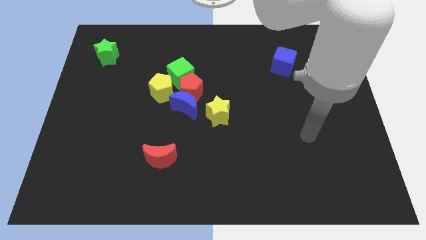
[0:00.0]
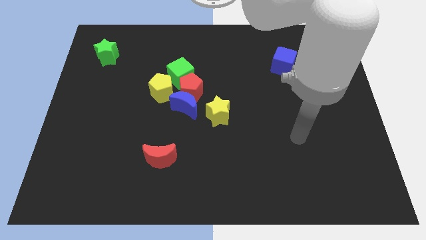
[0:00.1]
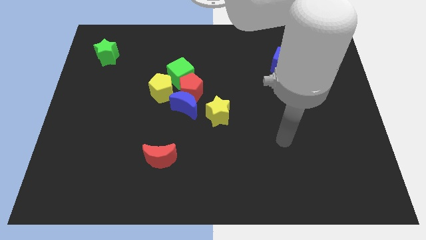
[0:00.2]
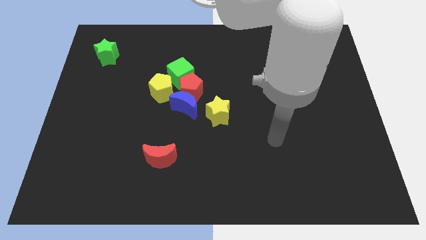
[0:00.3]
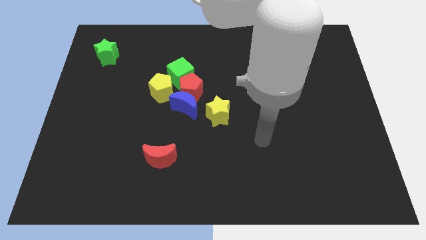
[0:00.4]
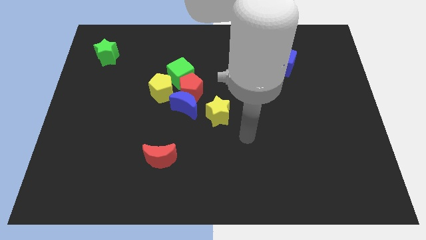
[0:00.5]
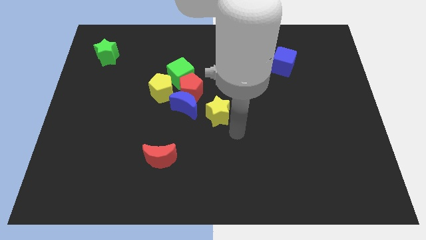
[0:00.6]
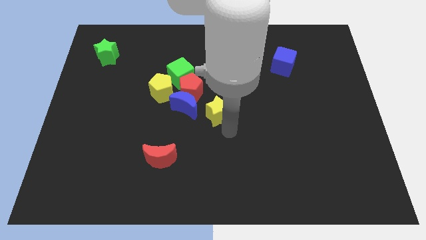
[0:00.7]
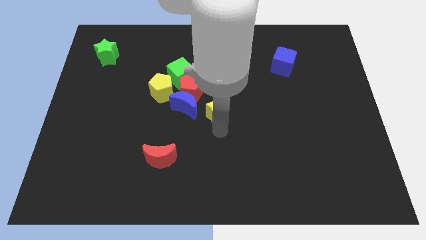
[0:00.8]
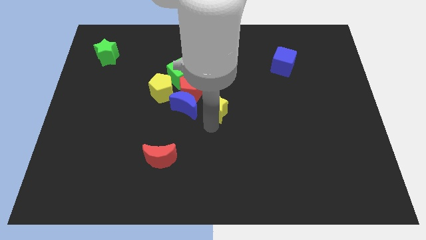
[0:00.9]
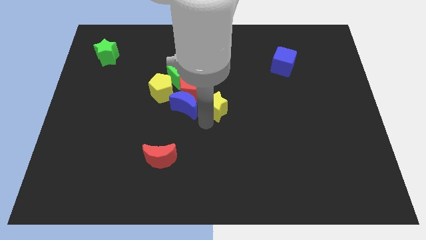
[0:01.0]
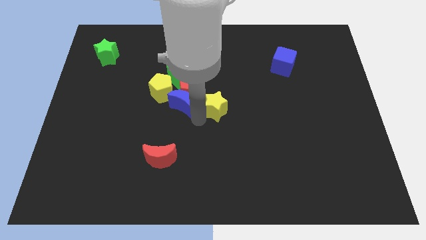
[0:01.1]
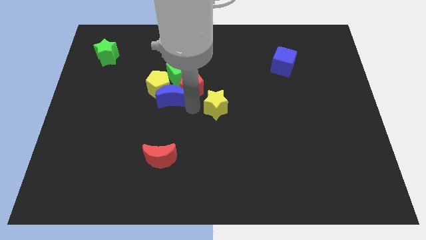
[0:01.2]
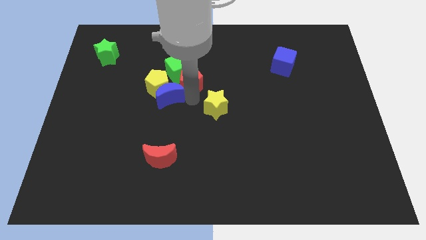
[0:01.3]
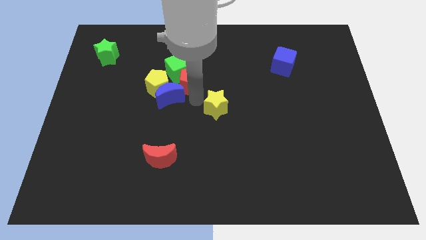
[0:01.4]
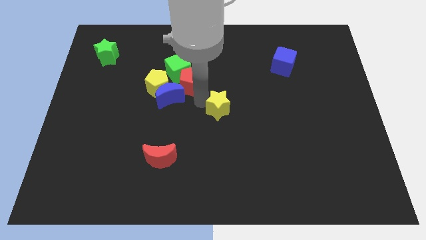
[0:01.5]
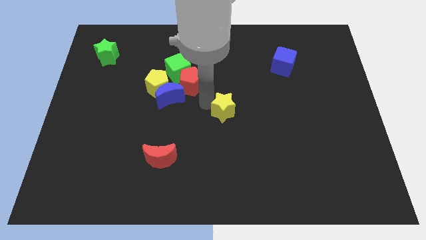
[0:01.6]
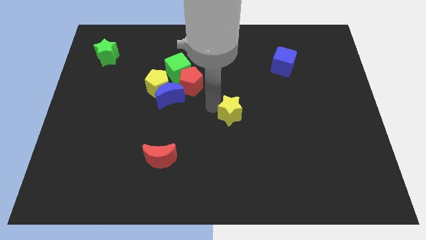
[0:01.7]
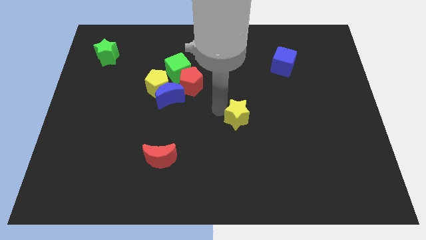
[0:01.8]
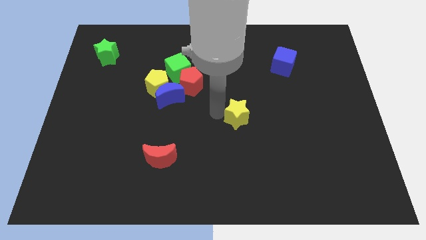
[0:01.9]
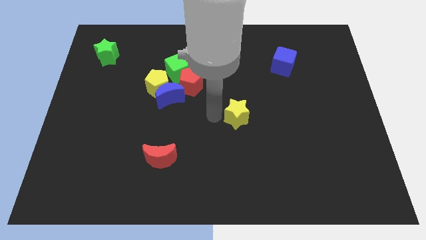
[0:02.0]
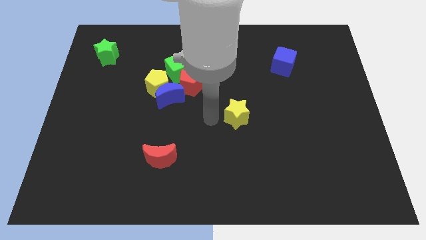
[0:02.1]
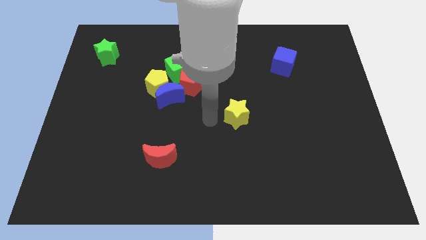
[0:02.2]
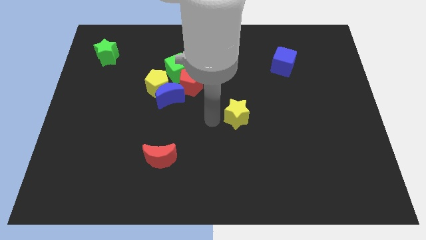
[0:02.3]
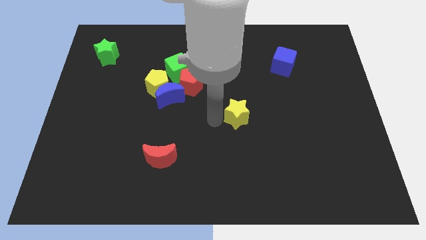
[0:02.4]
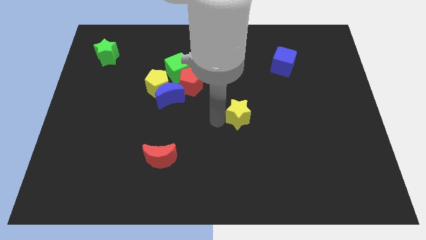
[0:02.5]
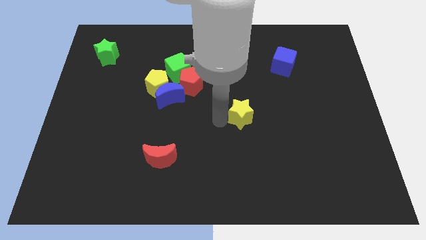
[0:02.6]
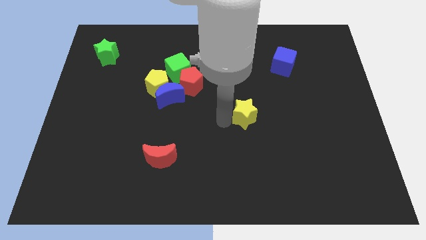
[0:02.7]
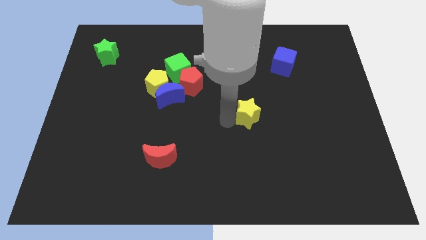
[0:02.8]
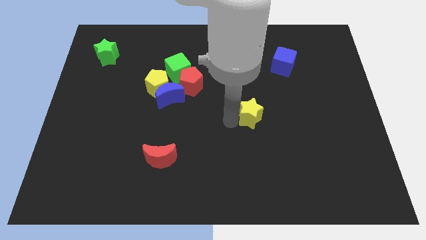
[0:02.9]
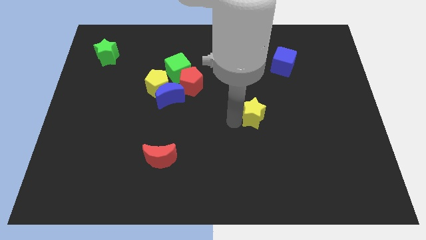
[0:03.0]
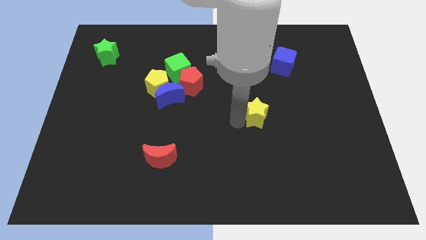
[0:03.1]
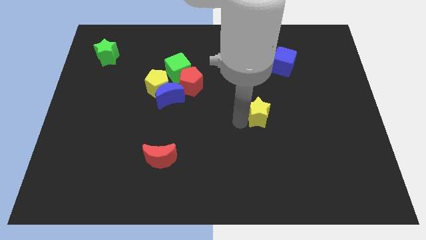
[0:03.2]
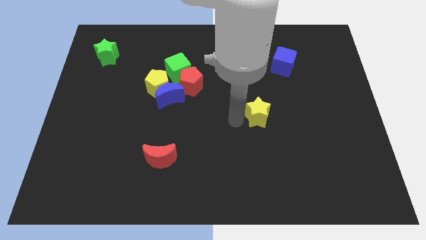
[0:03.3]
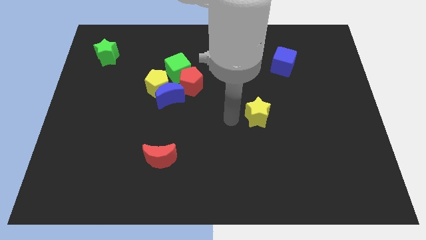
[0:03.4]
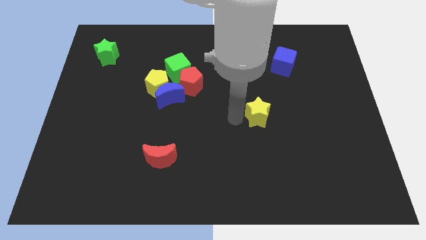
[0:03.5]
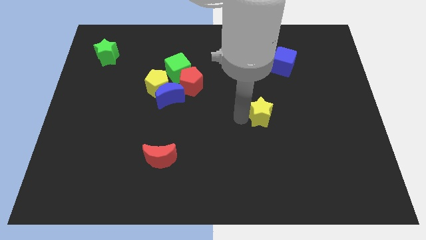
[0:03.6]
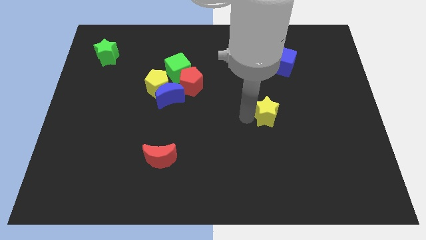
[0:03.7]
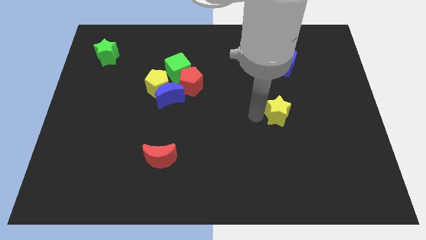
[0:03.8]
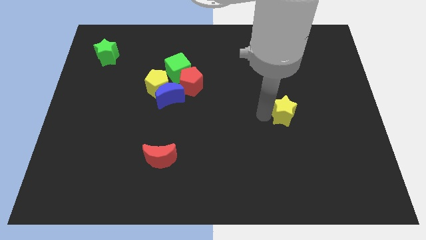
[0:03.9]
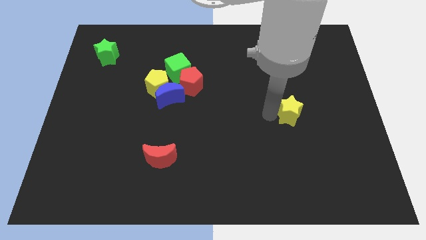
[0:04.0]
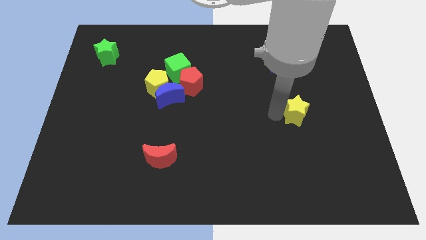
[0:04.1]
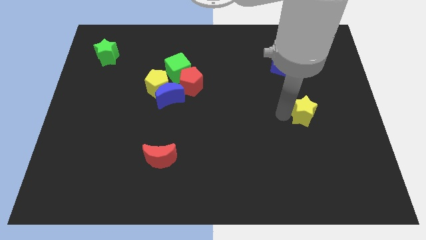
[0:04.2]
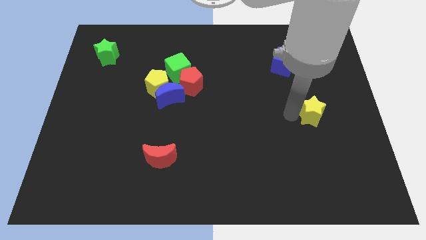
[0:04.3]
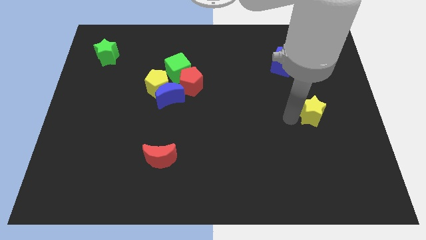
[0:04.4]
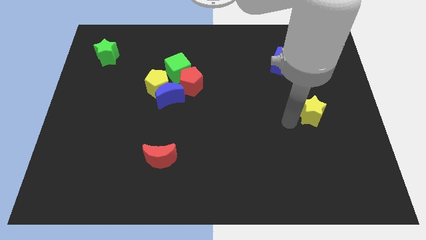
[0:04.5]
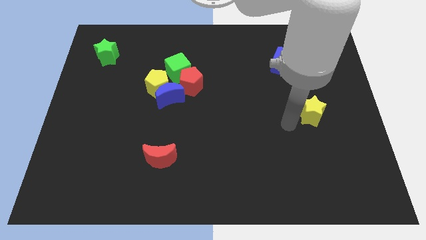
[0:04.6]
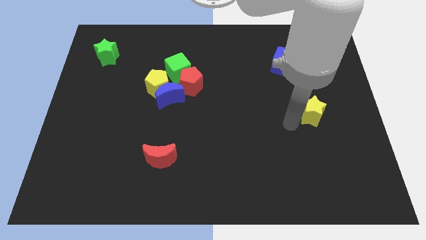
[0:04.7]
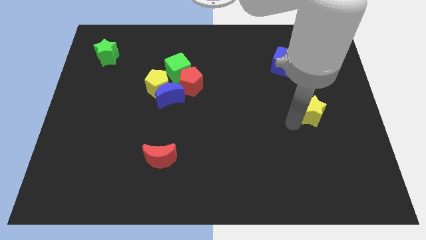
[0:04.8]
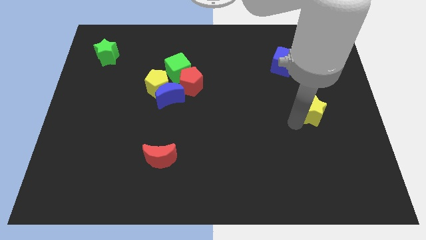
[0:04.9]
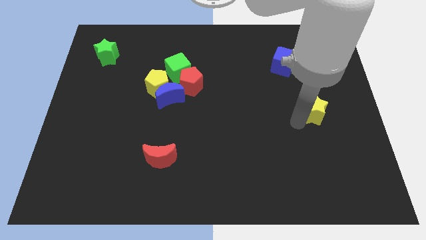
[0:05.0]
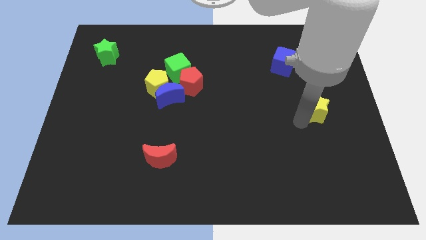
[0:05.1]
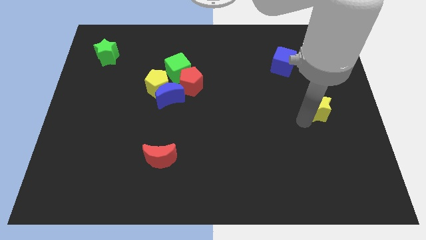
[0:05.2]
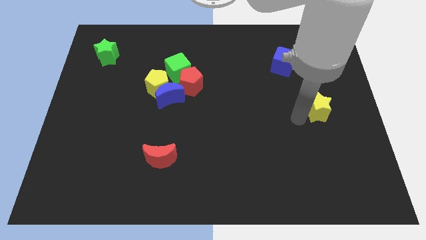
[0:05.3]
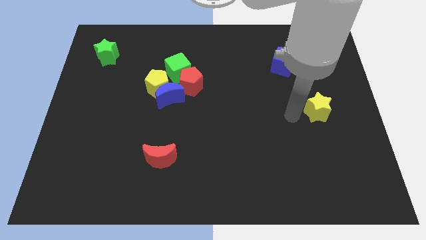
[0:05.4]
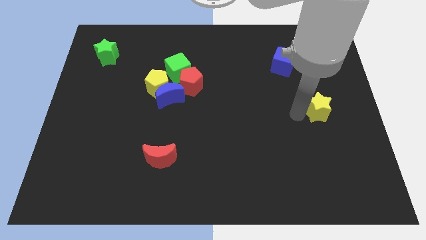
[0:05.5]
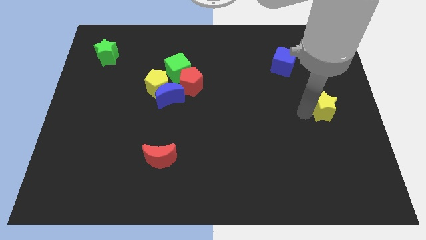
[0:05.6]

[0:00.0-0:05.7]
push the yellow star to the right side

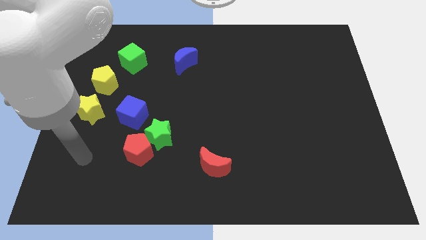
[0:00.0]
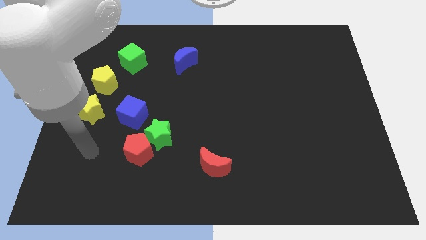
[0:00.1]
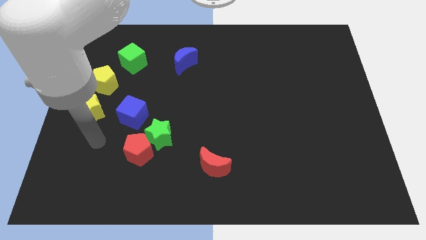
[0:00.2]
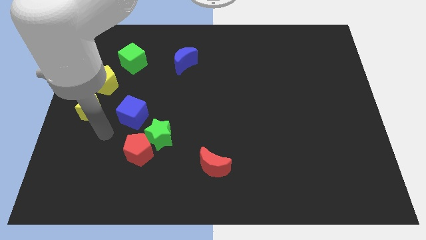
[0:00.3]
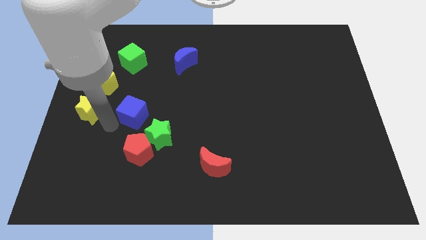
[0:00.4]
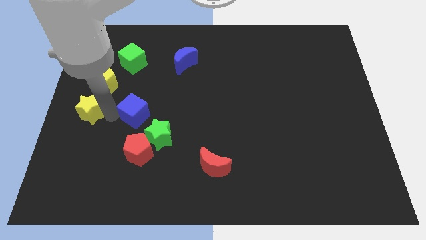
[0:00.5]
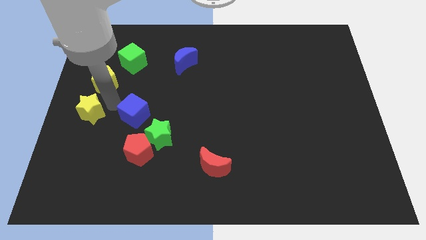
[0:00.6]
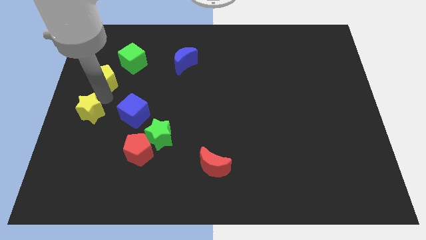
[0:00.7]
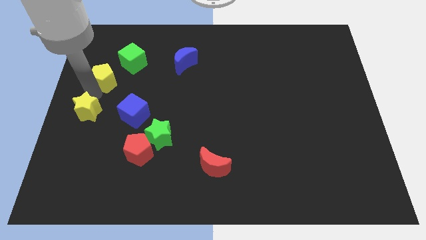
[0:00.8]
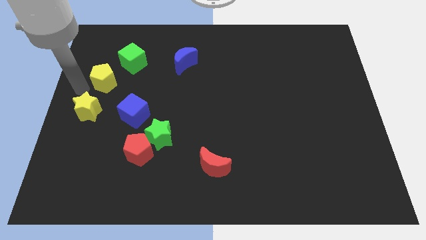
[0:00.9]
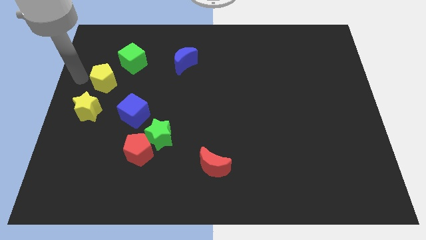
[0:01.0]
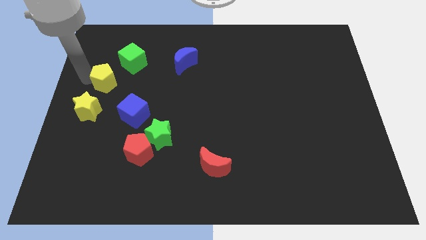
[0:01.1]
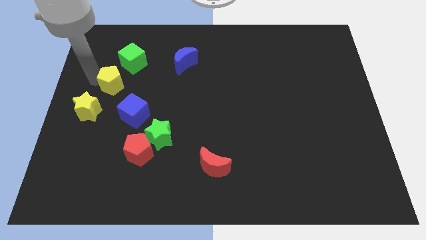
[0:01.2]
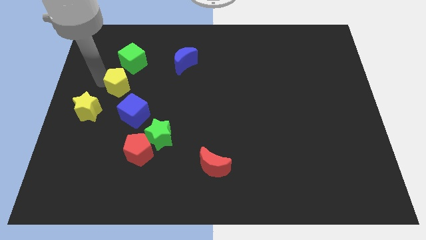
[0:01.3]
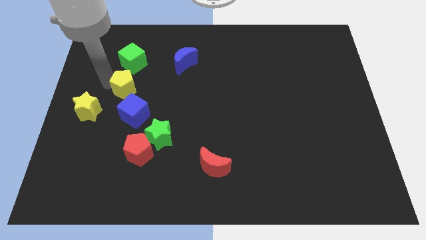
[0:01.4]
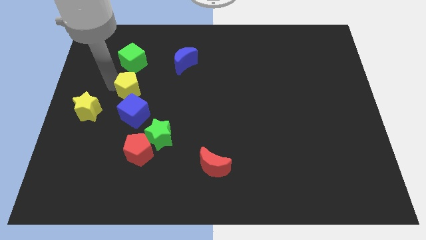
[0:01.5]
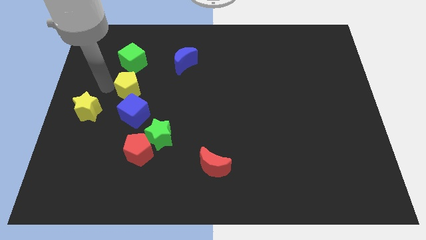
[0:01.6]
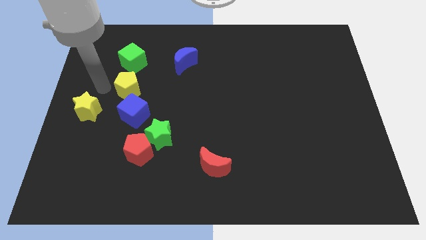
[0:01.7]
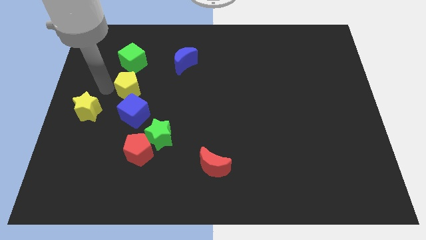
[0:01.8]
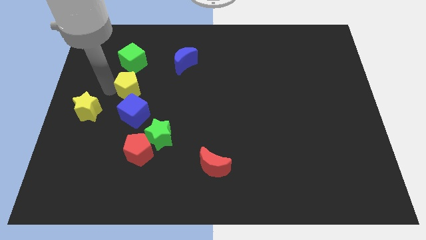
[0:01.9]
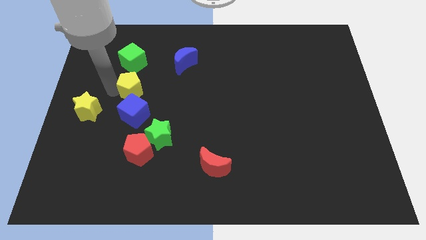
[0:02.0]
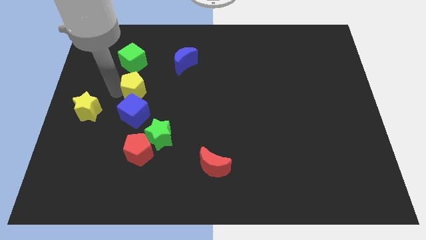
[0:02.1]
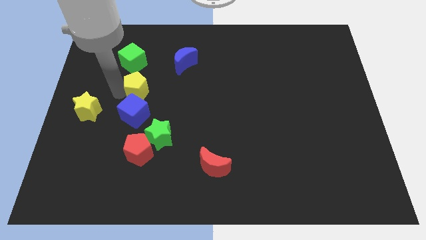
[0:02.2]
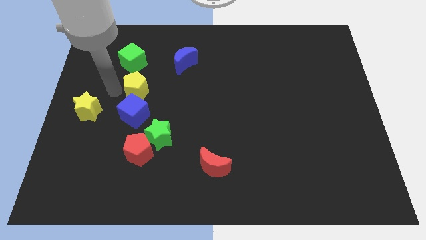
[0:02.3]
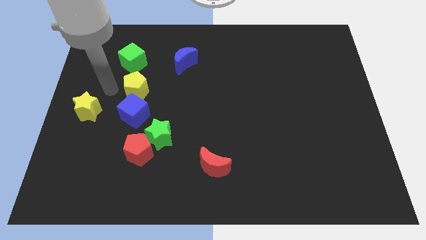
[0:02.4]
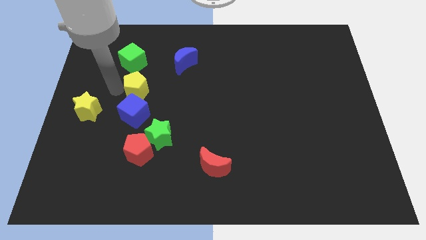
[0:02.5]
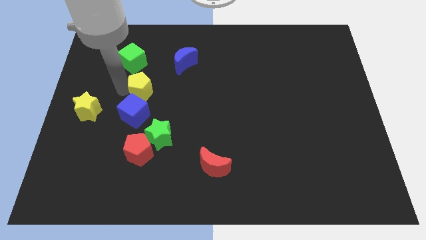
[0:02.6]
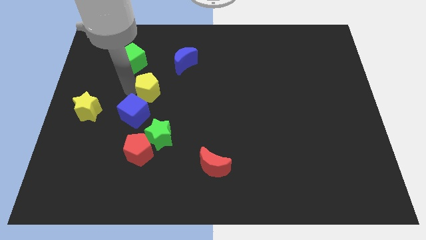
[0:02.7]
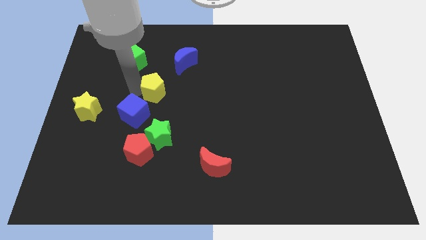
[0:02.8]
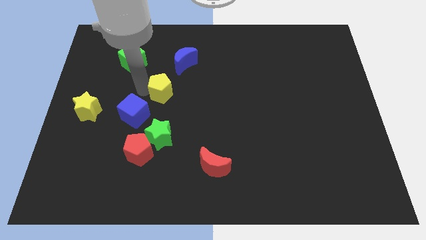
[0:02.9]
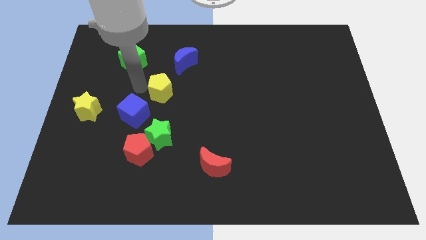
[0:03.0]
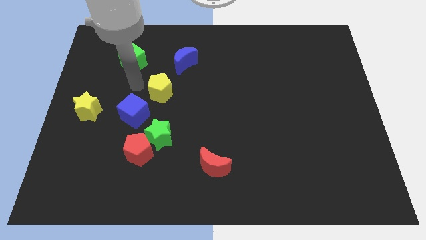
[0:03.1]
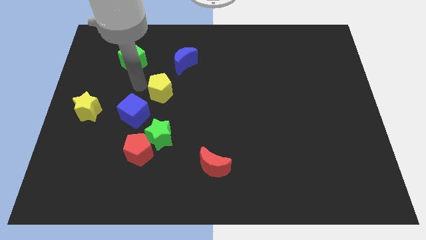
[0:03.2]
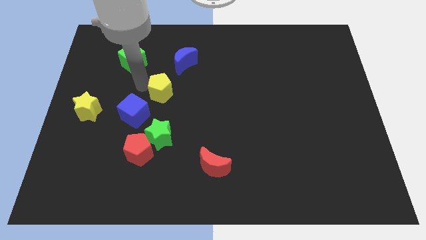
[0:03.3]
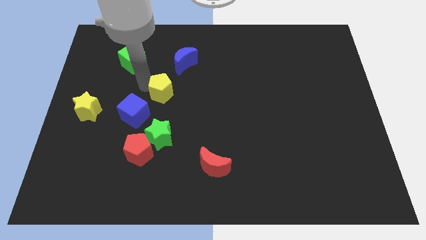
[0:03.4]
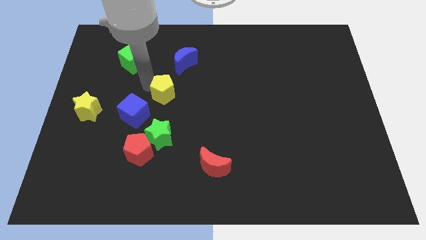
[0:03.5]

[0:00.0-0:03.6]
move the yellow pentagon to the middle of the board
